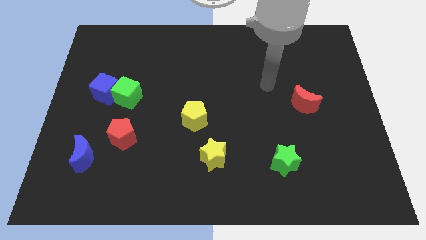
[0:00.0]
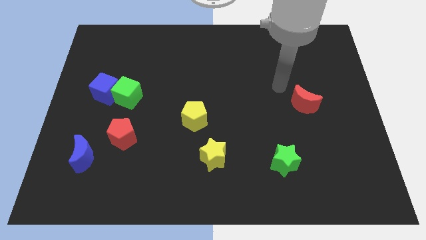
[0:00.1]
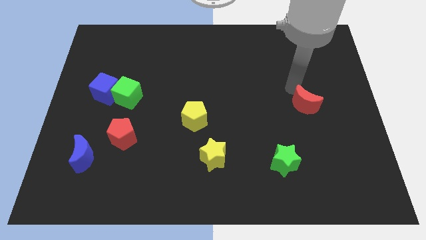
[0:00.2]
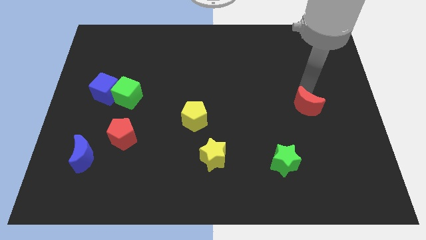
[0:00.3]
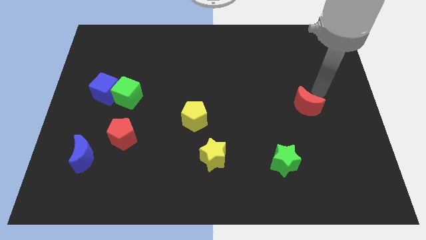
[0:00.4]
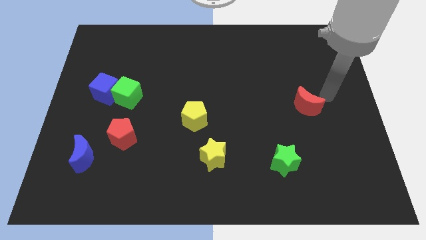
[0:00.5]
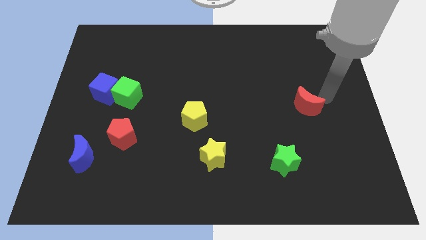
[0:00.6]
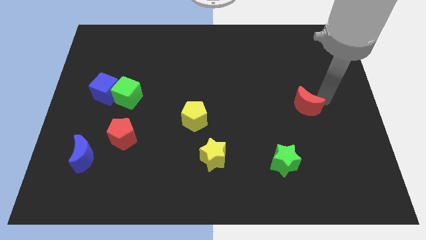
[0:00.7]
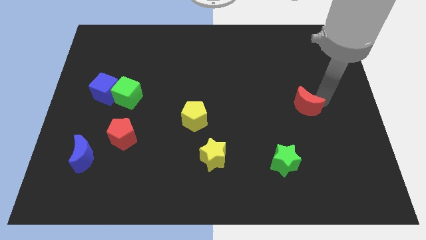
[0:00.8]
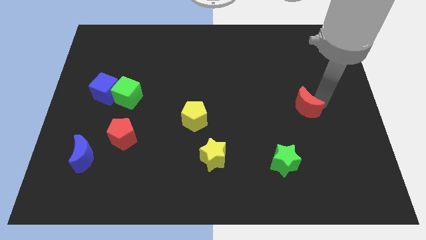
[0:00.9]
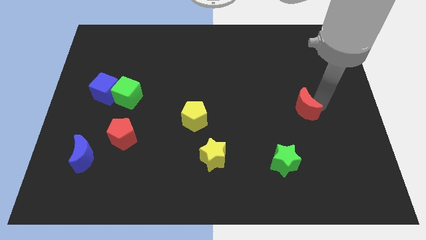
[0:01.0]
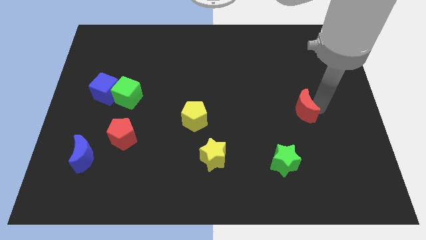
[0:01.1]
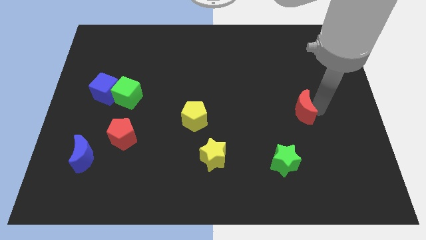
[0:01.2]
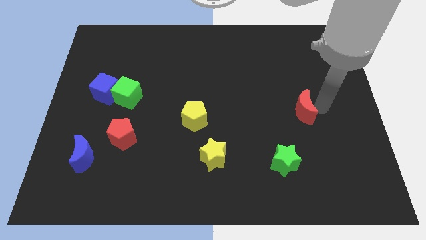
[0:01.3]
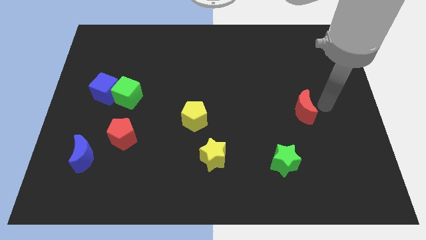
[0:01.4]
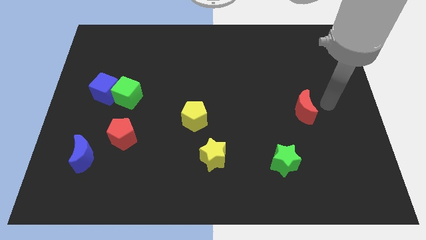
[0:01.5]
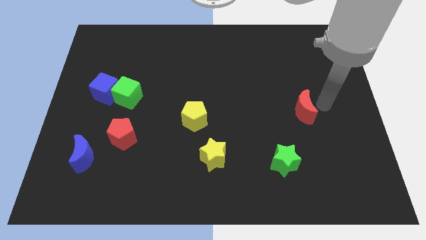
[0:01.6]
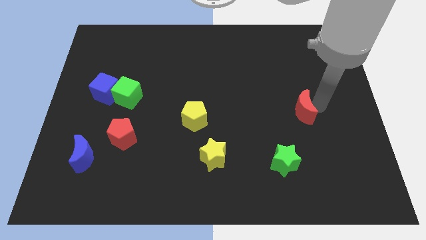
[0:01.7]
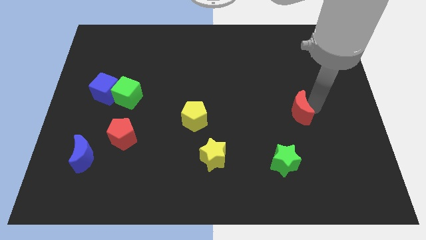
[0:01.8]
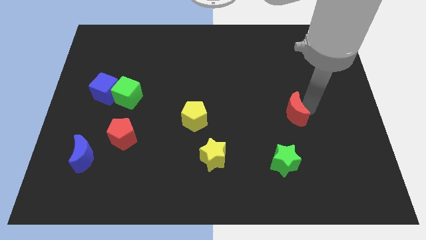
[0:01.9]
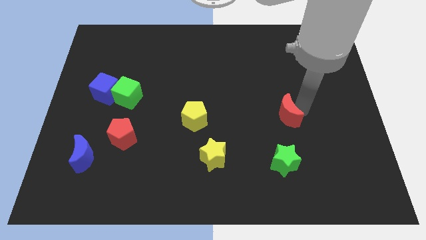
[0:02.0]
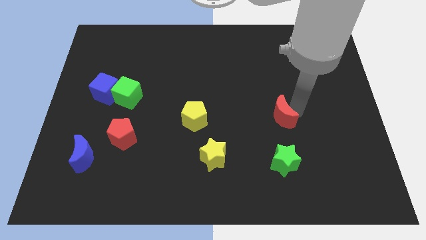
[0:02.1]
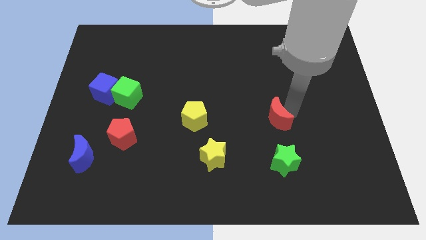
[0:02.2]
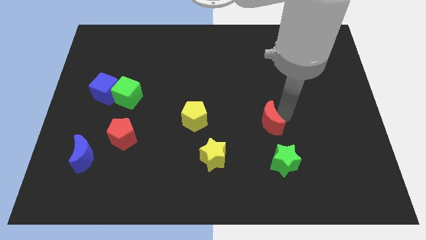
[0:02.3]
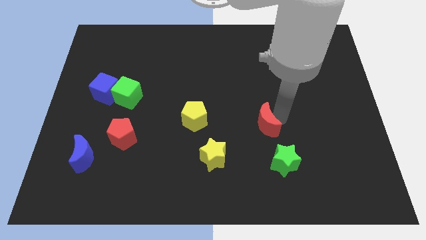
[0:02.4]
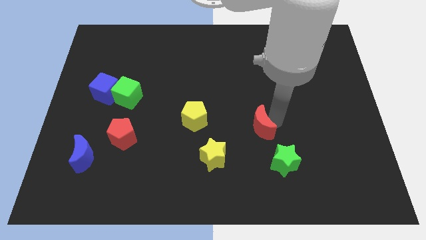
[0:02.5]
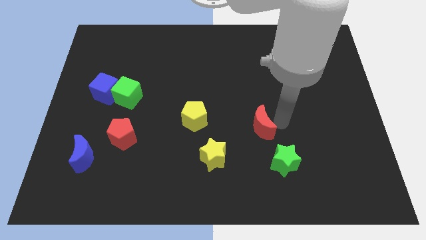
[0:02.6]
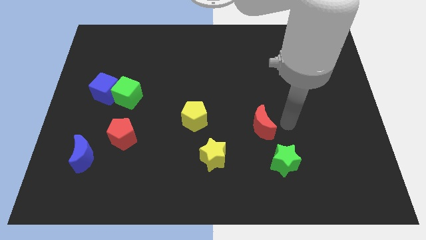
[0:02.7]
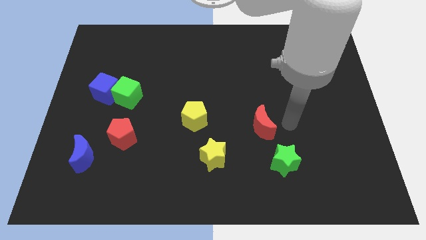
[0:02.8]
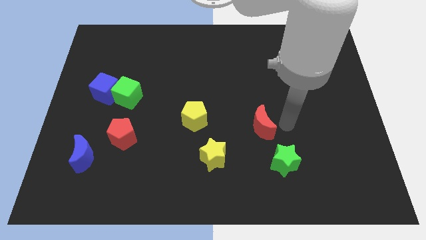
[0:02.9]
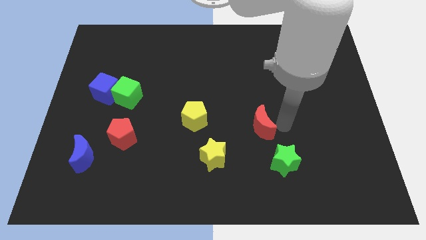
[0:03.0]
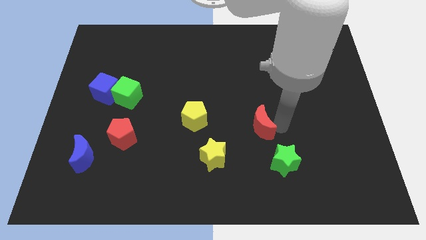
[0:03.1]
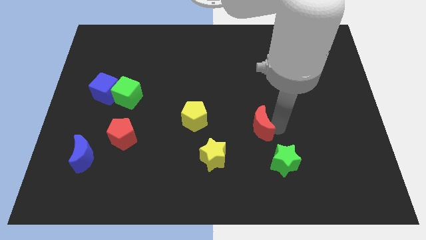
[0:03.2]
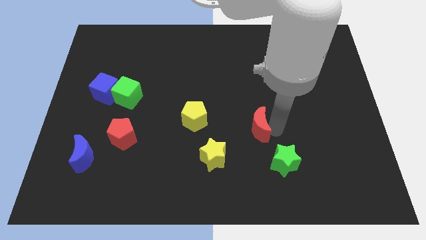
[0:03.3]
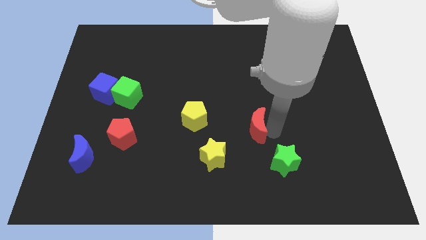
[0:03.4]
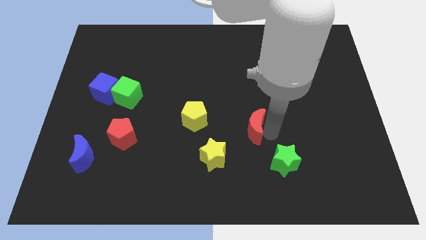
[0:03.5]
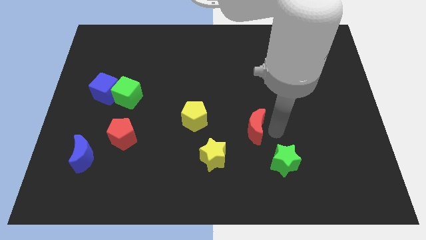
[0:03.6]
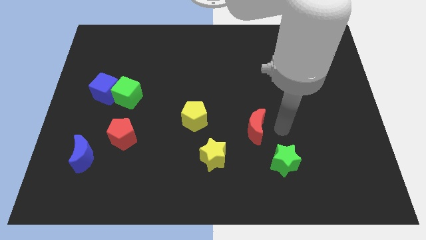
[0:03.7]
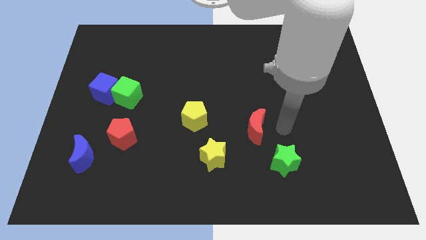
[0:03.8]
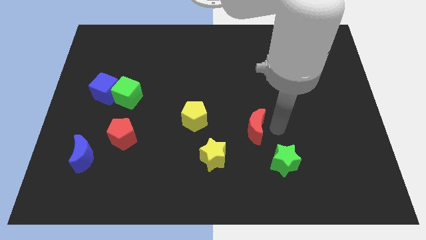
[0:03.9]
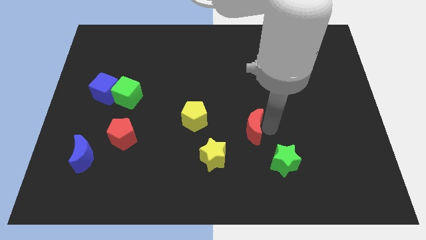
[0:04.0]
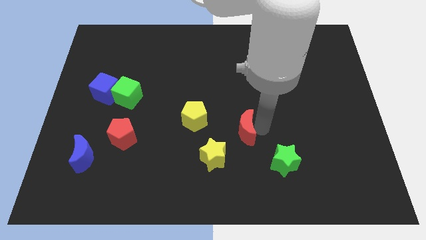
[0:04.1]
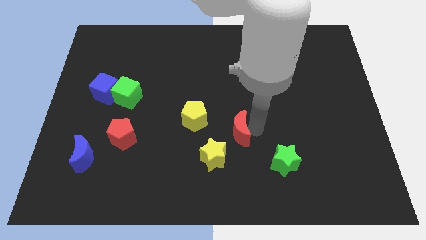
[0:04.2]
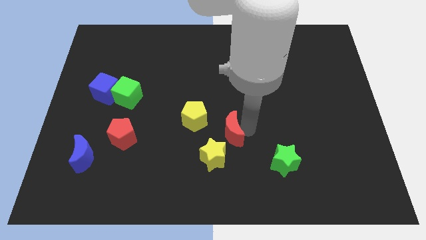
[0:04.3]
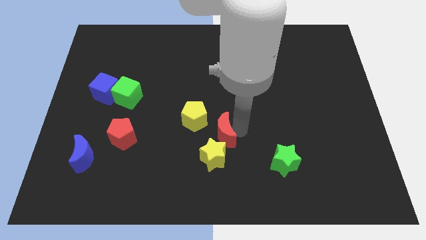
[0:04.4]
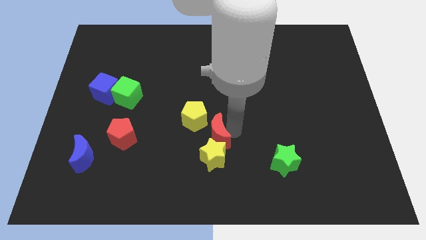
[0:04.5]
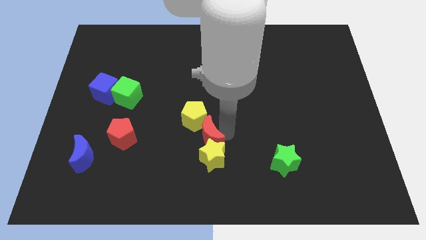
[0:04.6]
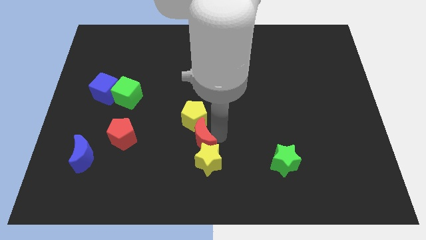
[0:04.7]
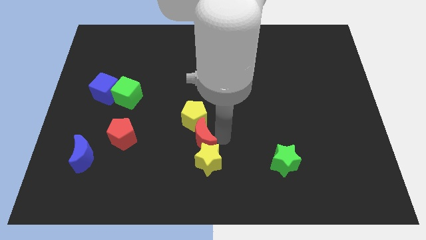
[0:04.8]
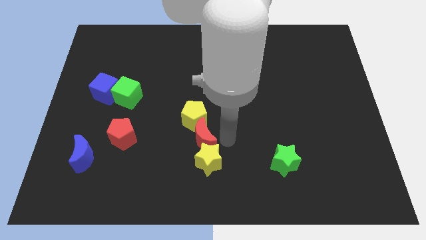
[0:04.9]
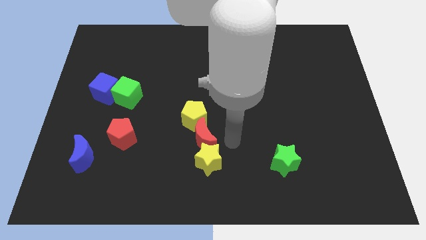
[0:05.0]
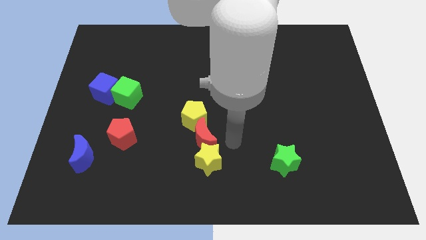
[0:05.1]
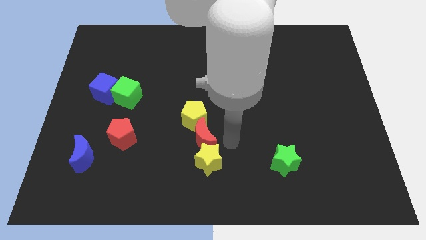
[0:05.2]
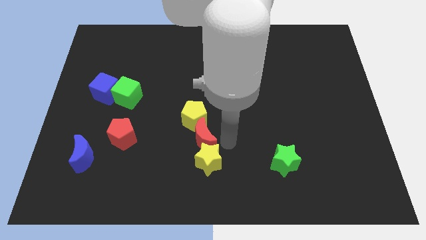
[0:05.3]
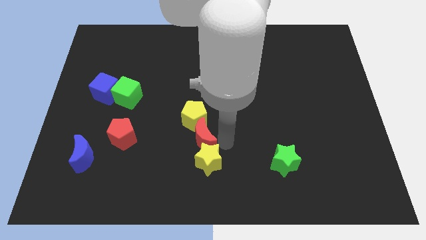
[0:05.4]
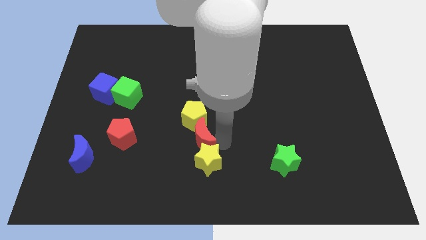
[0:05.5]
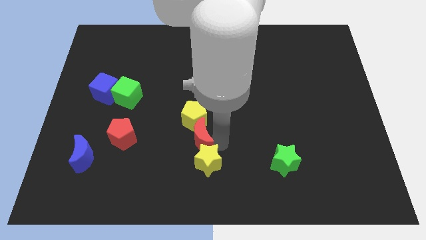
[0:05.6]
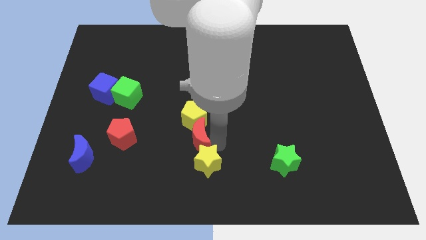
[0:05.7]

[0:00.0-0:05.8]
move the red moon to the bottom left of the yellow pentagon

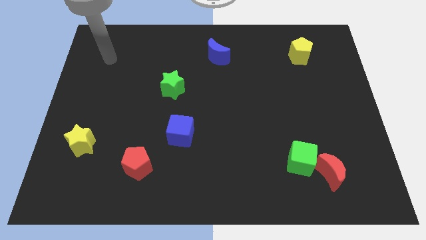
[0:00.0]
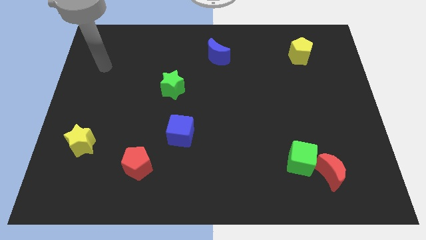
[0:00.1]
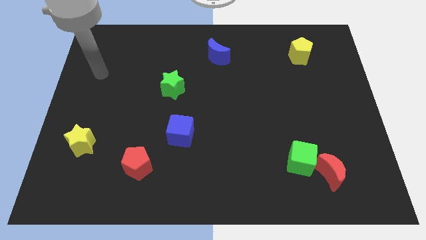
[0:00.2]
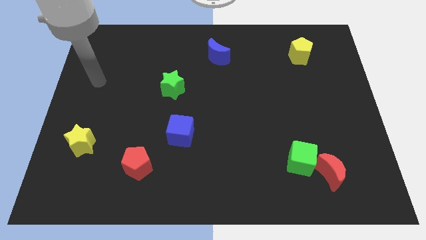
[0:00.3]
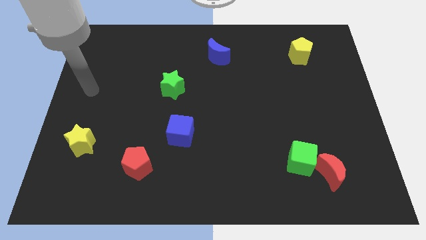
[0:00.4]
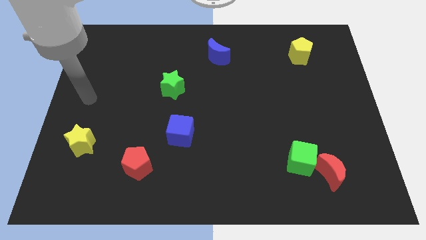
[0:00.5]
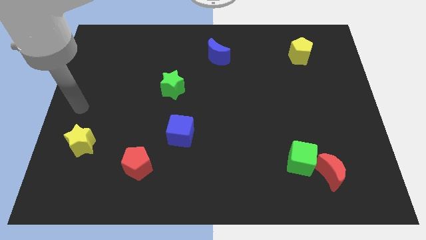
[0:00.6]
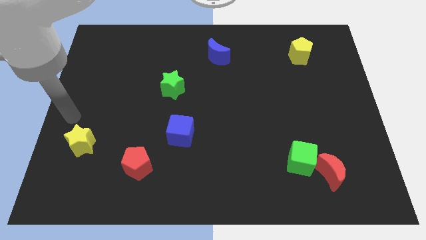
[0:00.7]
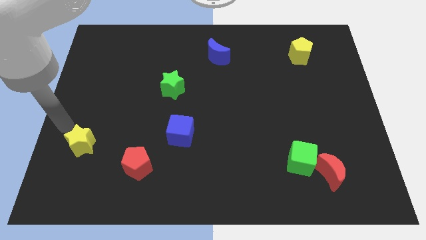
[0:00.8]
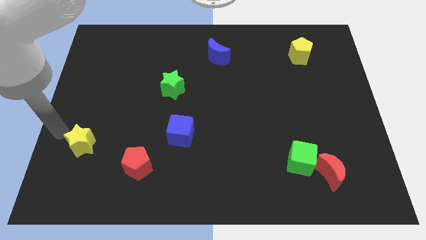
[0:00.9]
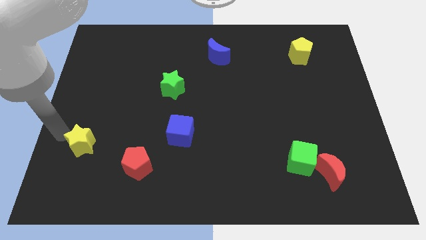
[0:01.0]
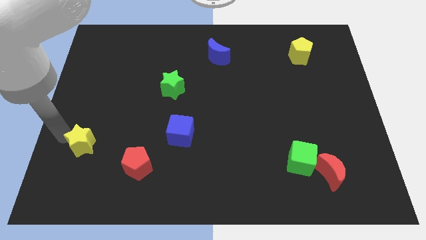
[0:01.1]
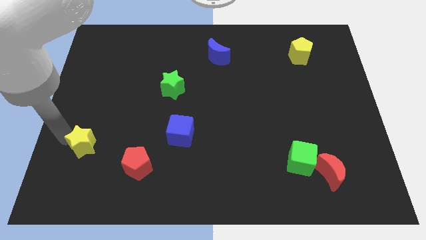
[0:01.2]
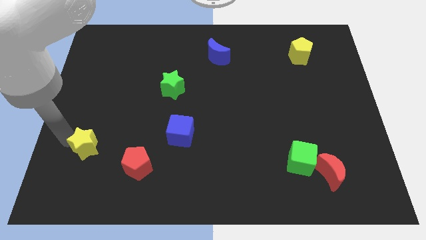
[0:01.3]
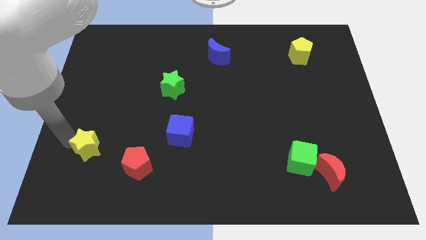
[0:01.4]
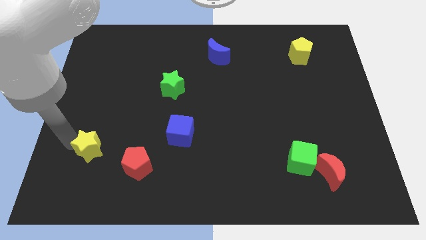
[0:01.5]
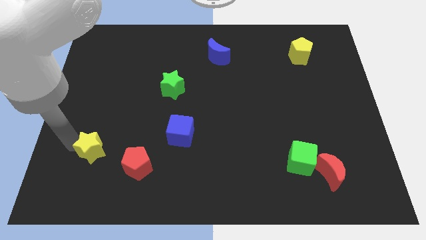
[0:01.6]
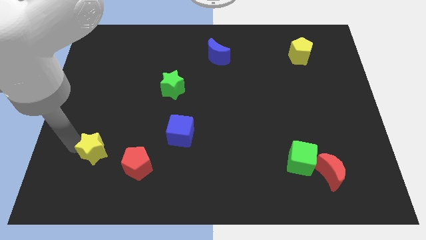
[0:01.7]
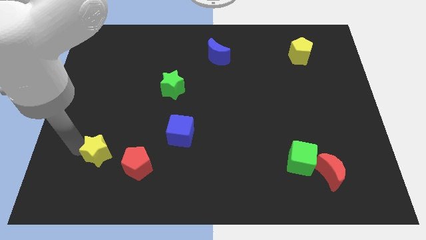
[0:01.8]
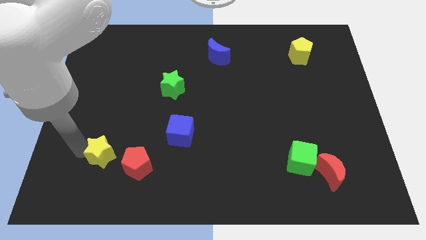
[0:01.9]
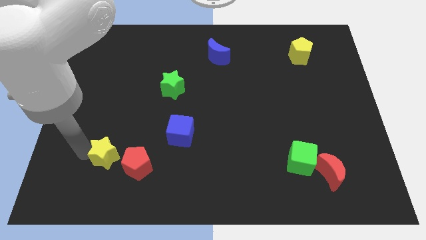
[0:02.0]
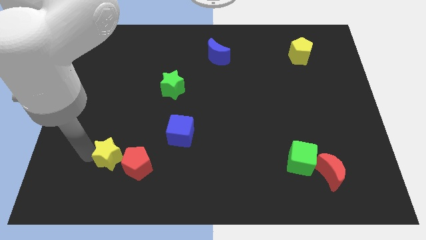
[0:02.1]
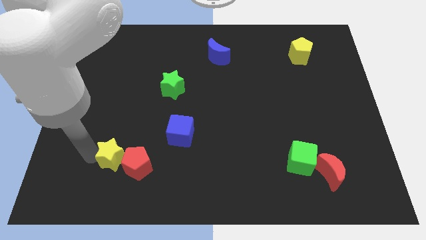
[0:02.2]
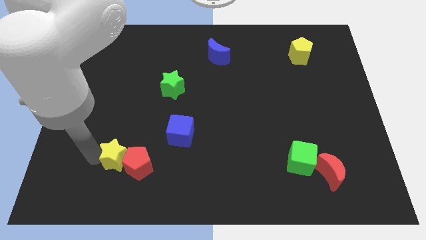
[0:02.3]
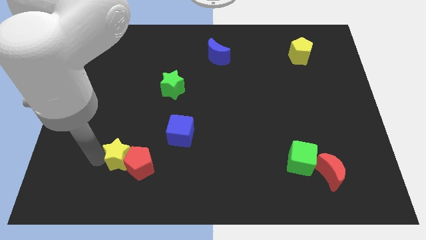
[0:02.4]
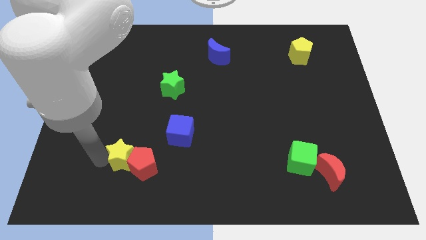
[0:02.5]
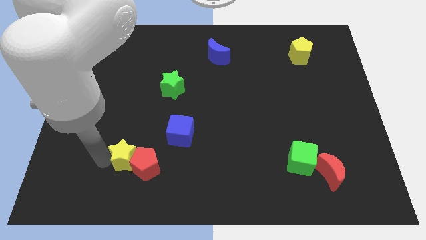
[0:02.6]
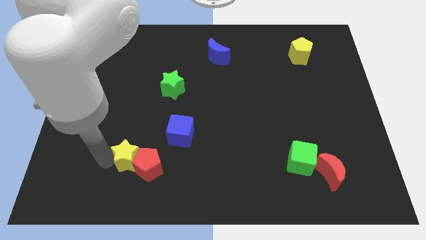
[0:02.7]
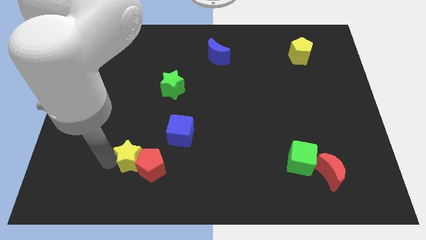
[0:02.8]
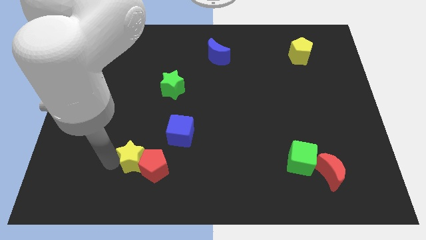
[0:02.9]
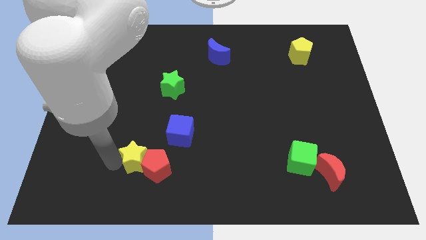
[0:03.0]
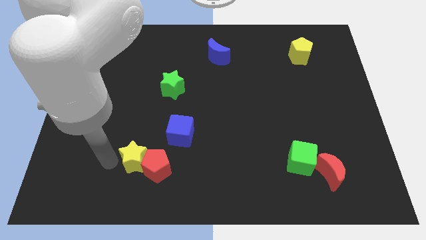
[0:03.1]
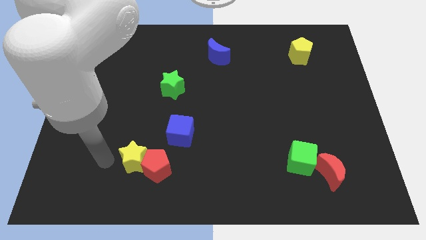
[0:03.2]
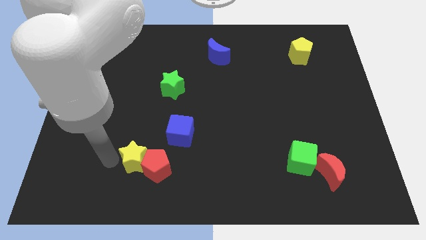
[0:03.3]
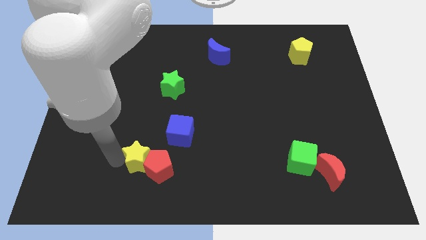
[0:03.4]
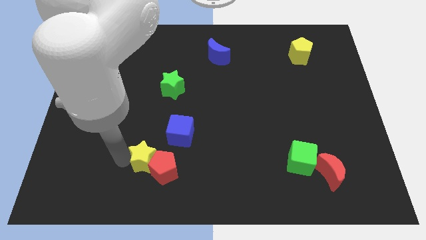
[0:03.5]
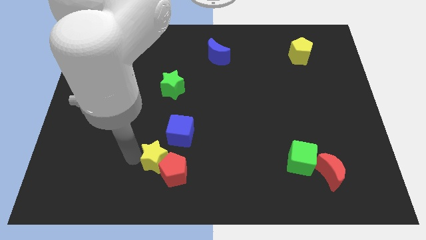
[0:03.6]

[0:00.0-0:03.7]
move the yellow star to the bottom of the blue cube
